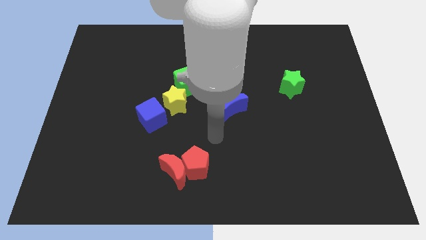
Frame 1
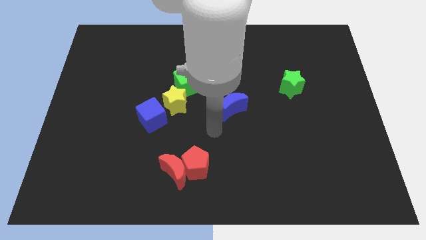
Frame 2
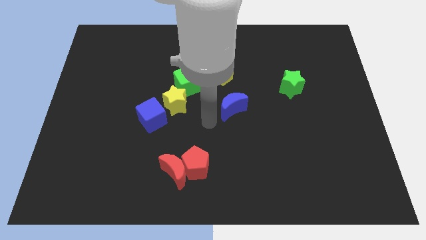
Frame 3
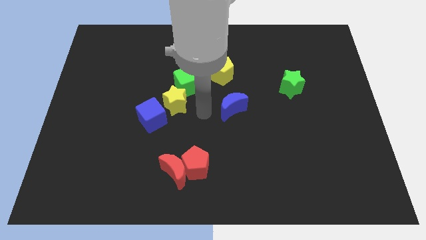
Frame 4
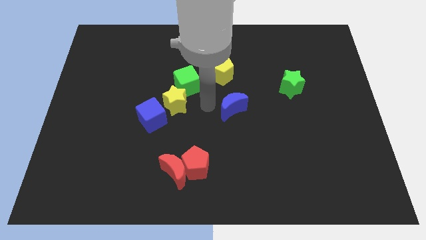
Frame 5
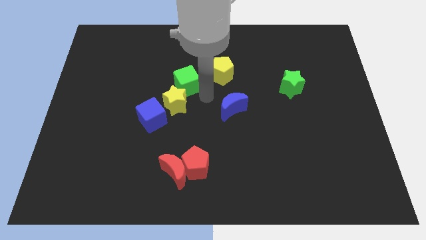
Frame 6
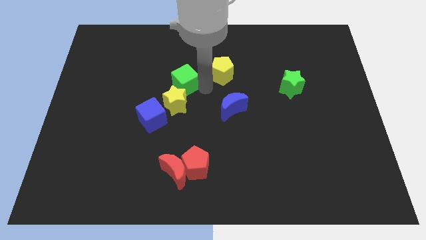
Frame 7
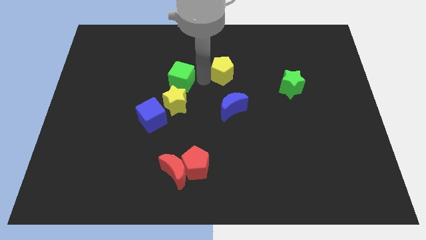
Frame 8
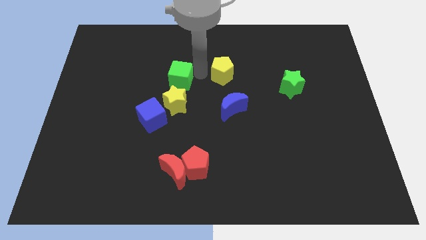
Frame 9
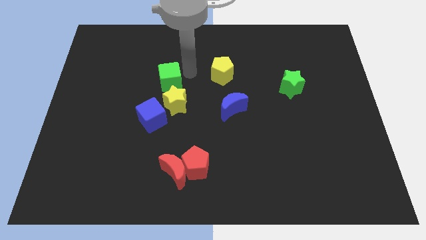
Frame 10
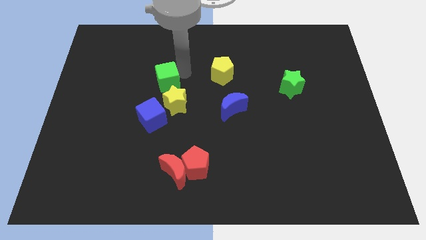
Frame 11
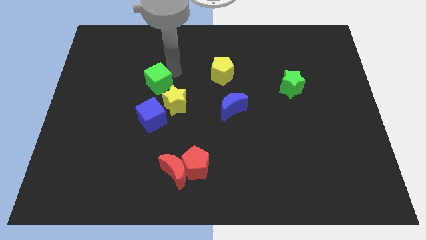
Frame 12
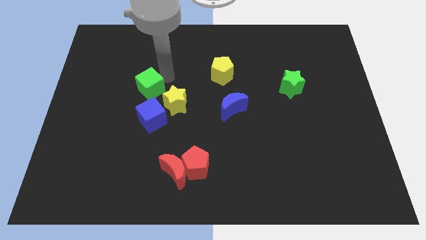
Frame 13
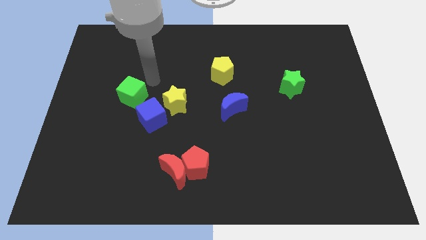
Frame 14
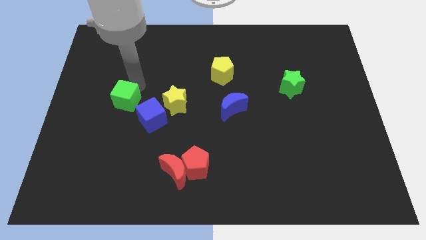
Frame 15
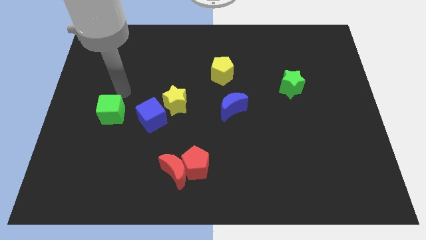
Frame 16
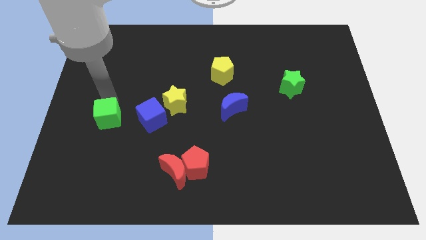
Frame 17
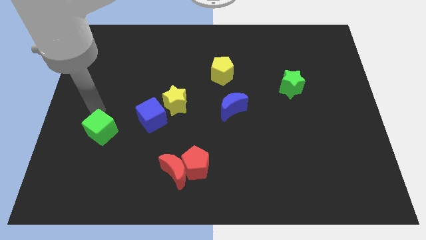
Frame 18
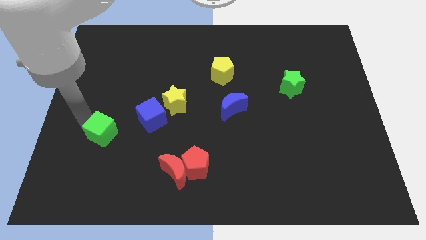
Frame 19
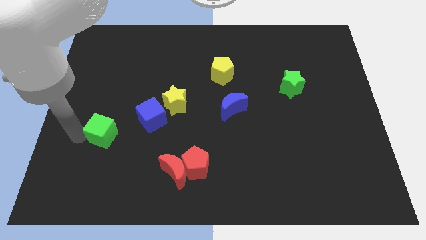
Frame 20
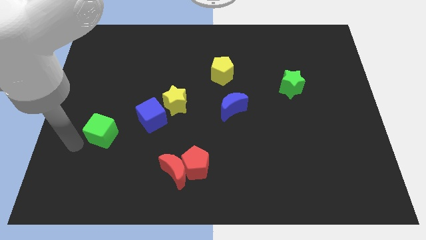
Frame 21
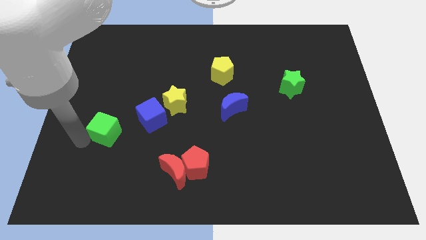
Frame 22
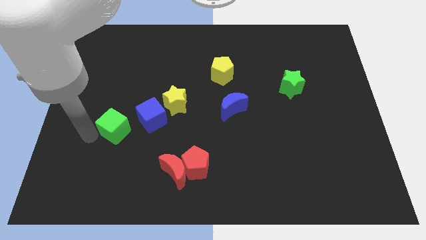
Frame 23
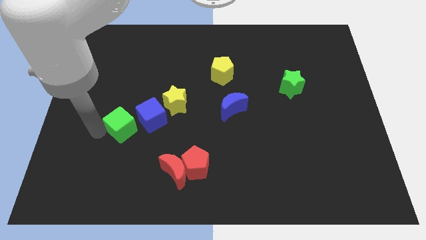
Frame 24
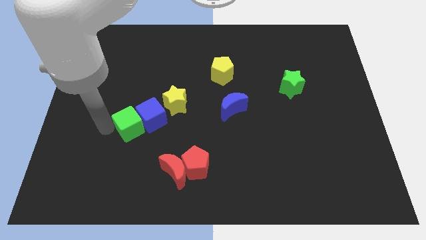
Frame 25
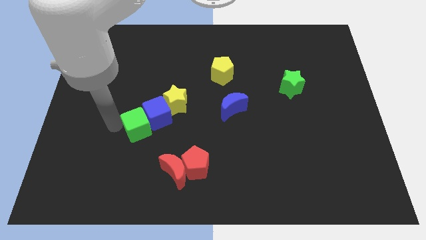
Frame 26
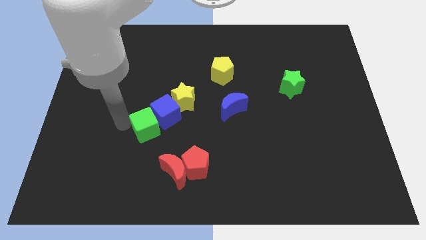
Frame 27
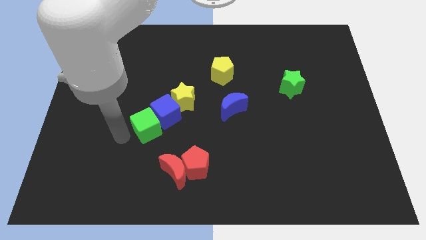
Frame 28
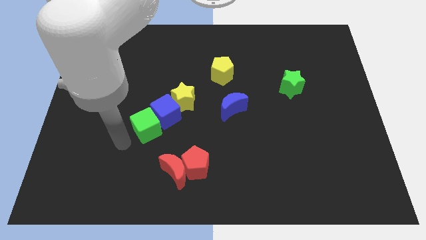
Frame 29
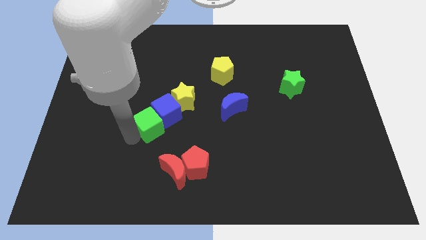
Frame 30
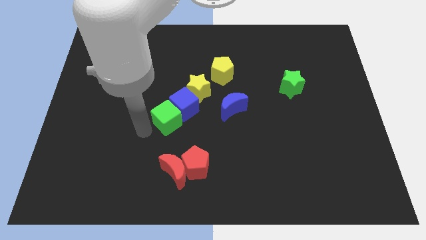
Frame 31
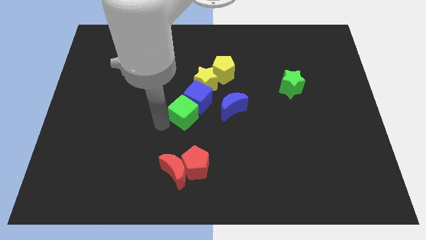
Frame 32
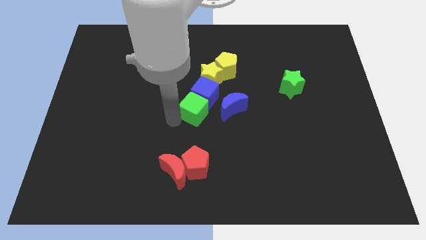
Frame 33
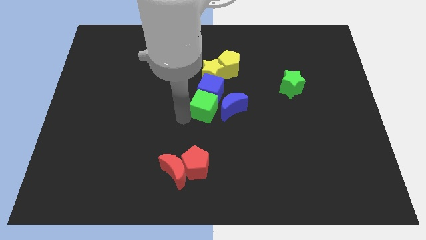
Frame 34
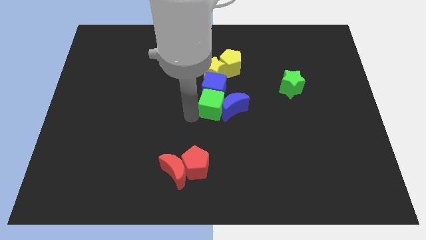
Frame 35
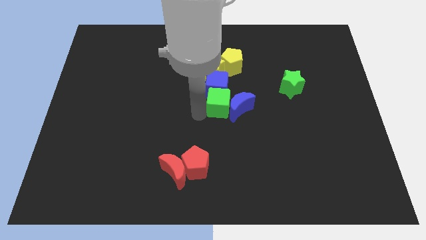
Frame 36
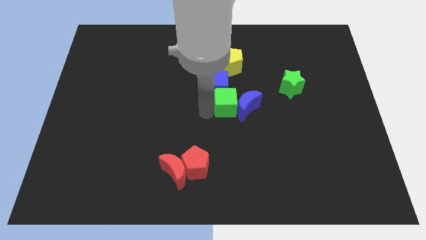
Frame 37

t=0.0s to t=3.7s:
slightly push the green cube to the right

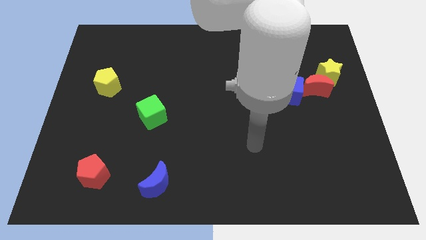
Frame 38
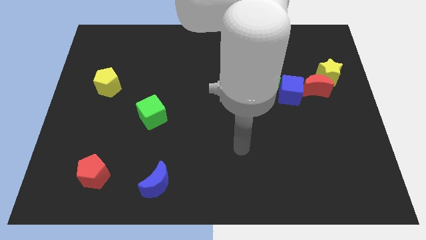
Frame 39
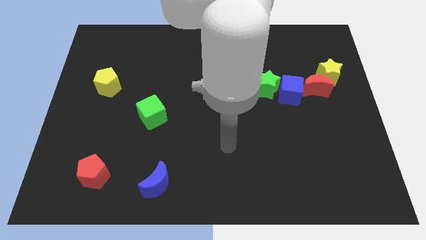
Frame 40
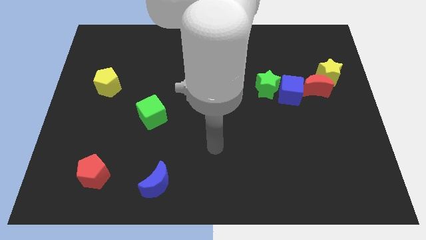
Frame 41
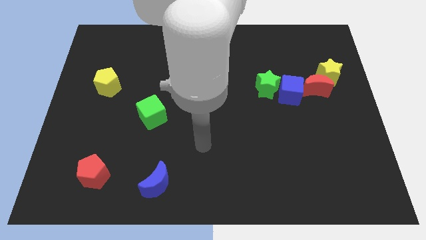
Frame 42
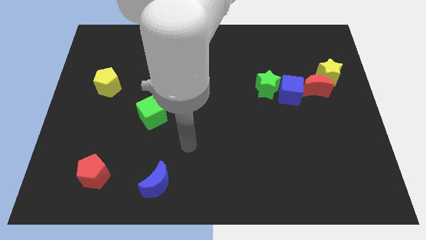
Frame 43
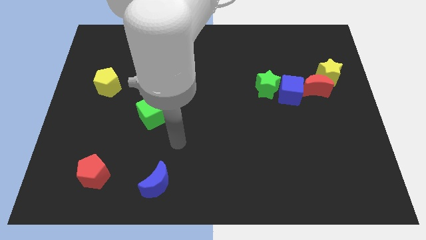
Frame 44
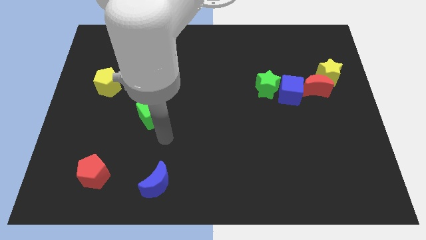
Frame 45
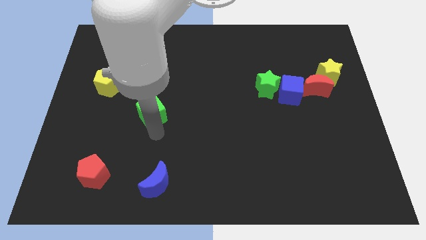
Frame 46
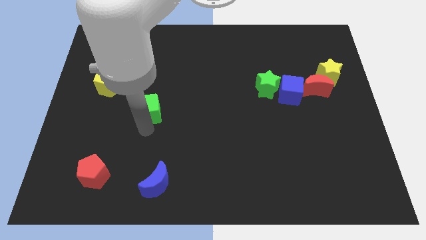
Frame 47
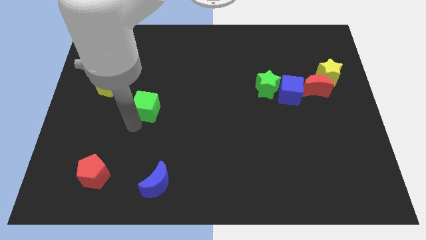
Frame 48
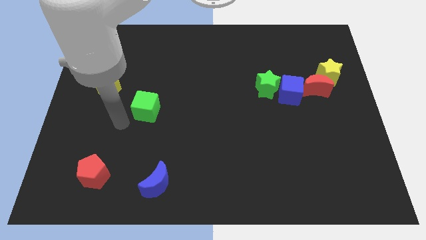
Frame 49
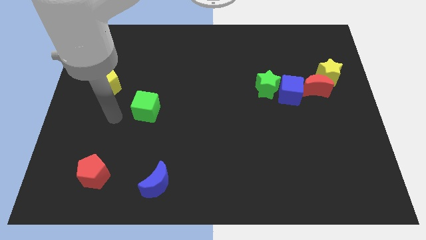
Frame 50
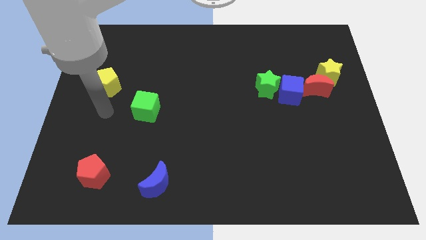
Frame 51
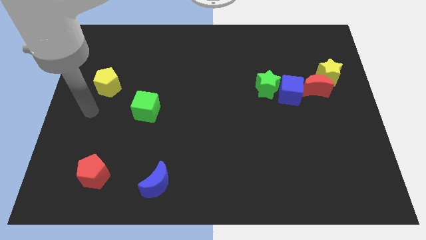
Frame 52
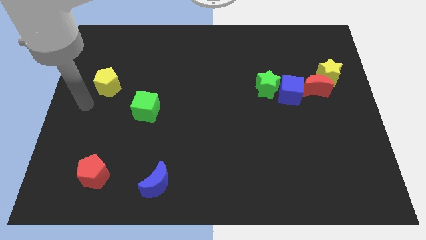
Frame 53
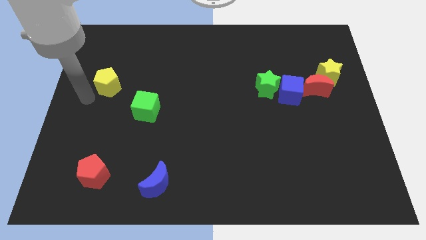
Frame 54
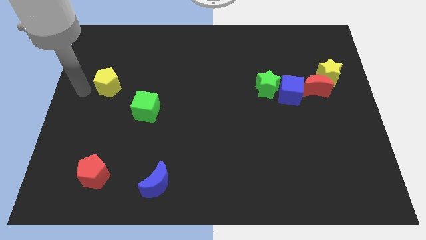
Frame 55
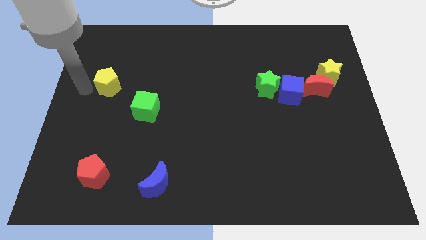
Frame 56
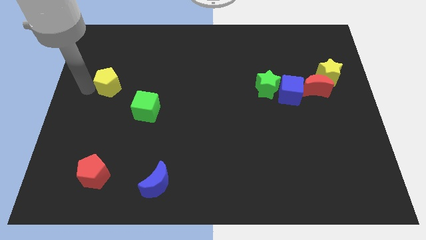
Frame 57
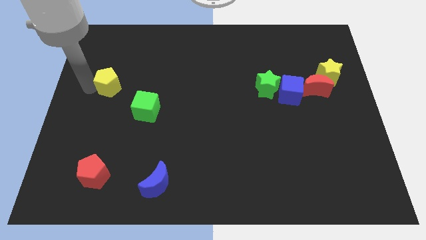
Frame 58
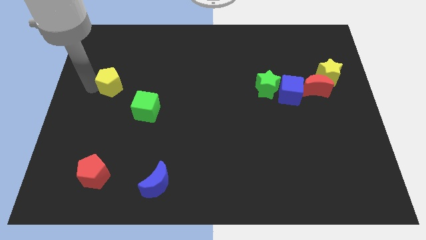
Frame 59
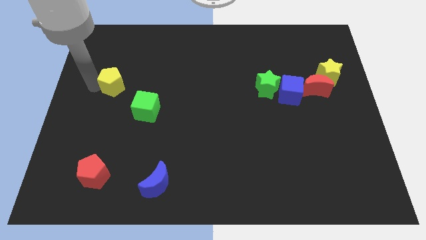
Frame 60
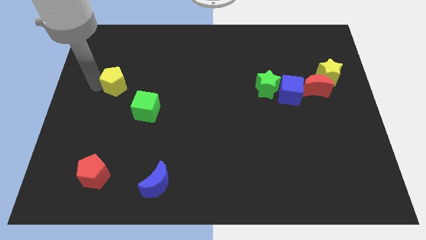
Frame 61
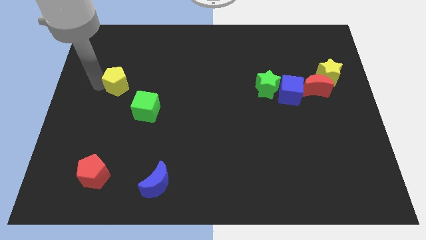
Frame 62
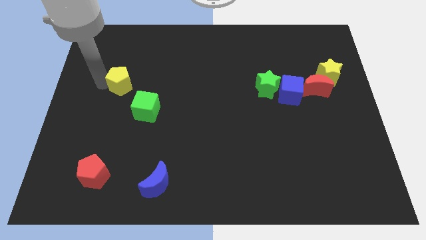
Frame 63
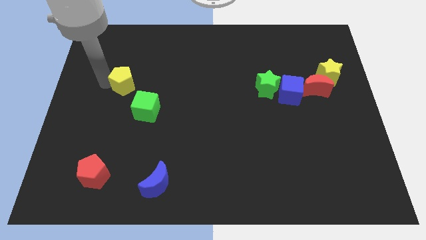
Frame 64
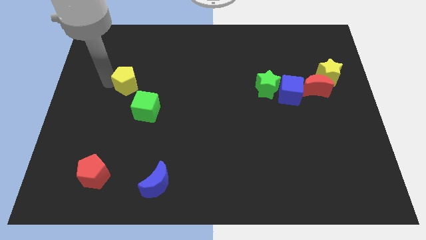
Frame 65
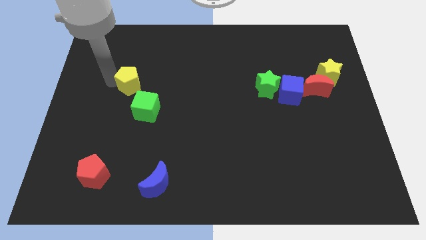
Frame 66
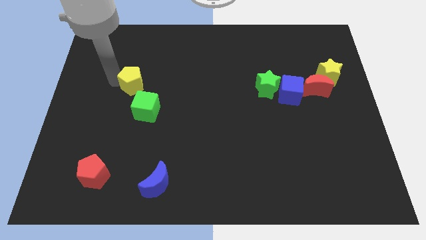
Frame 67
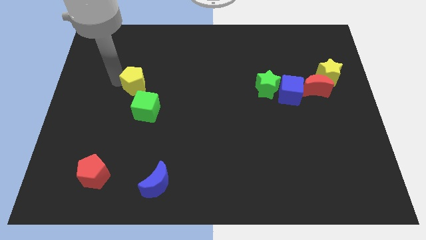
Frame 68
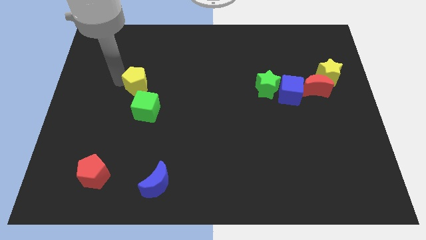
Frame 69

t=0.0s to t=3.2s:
push the yellow pentagon a little to the right

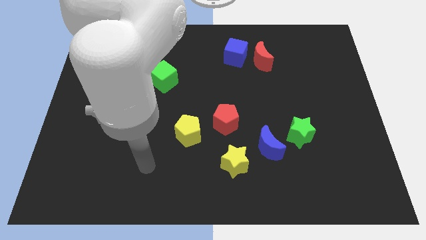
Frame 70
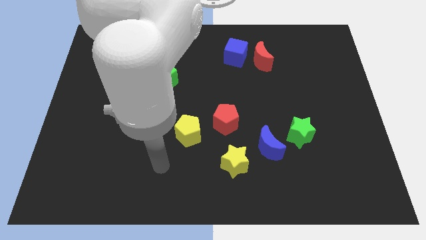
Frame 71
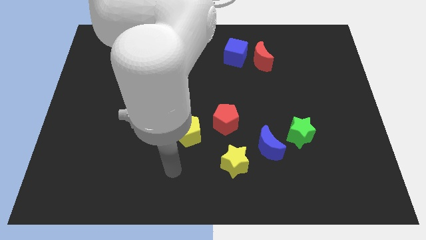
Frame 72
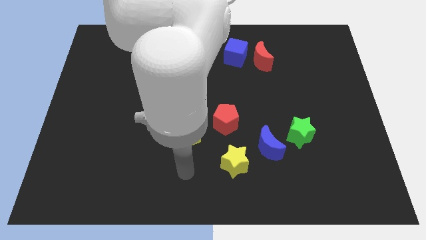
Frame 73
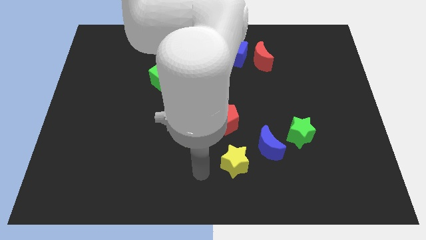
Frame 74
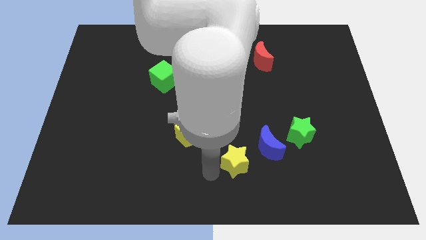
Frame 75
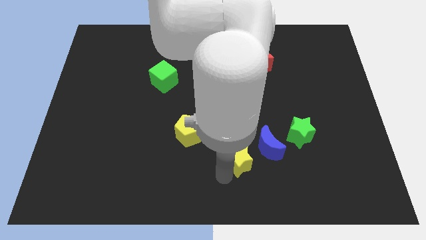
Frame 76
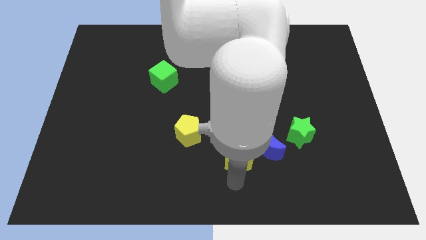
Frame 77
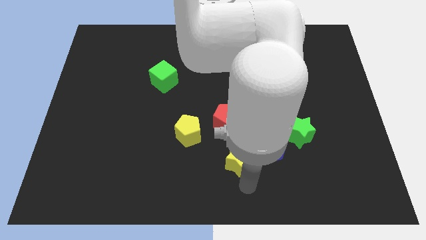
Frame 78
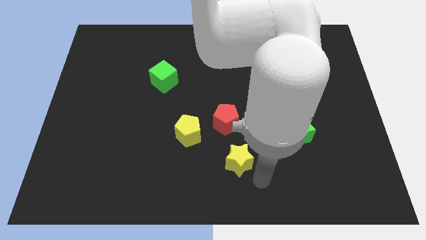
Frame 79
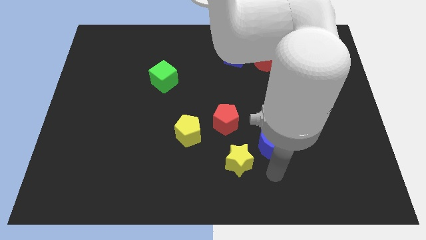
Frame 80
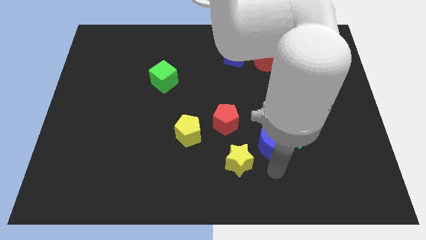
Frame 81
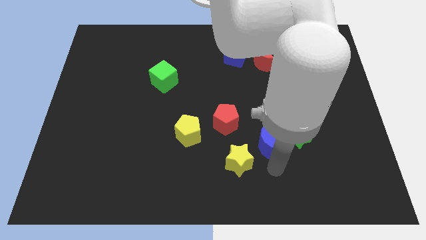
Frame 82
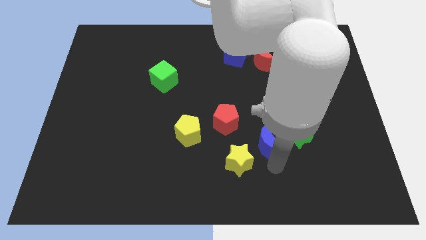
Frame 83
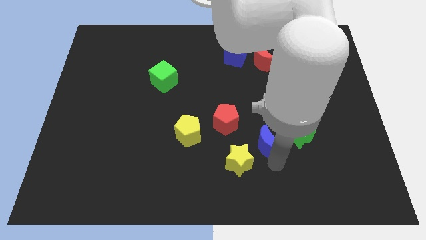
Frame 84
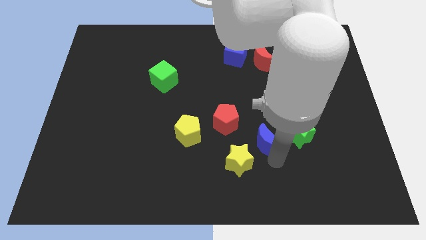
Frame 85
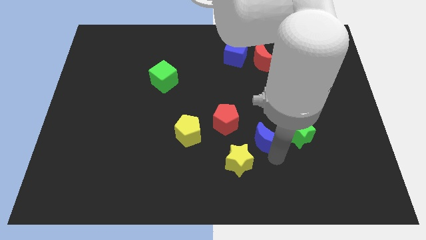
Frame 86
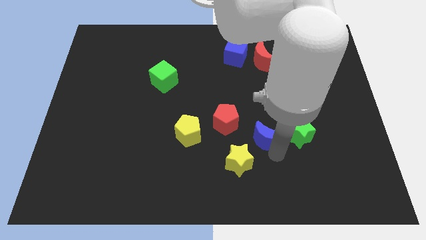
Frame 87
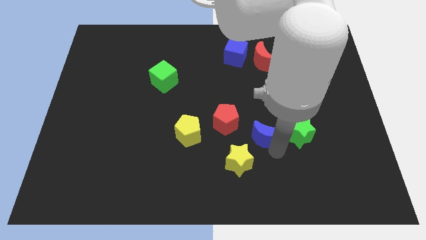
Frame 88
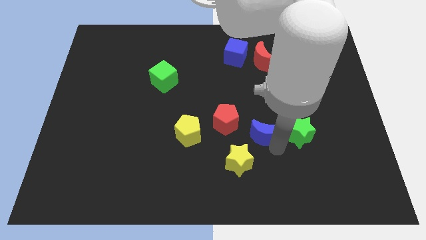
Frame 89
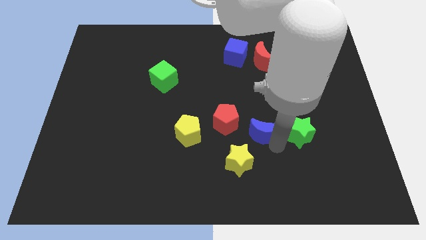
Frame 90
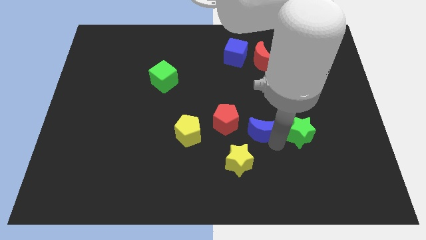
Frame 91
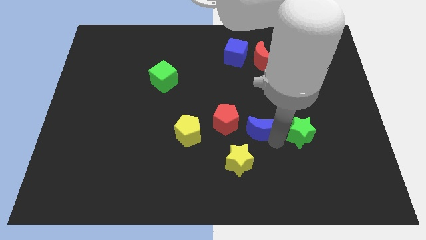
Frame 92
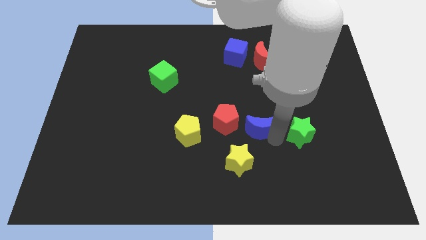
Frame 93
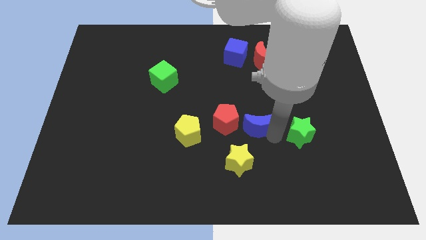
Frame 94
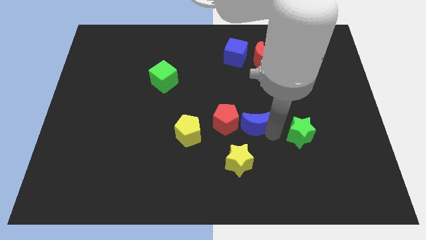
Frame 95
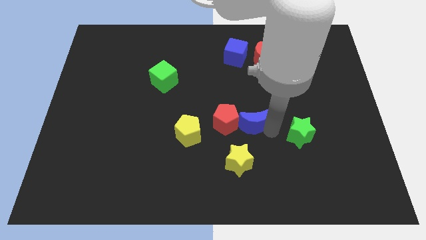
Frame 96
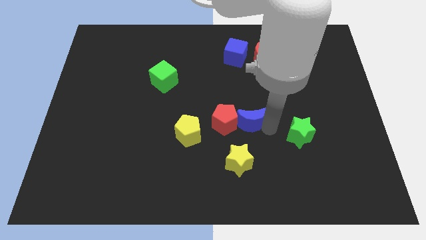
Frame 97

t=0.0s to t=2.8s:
push the blue moon diagonally upwards and to the left a little
